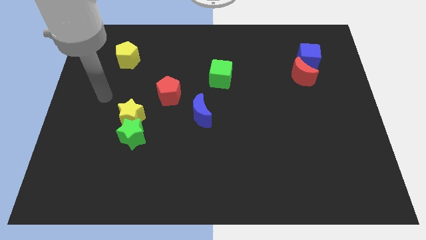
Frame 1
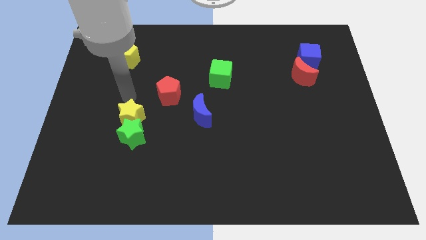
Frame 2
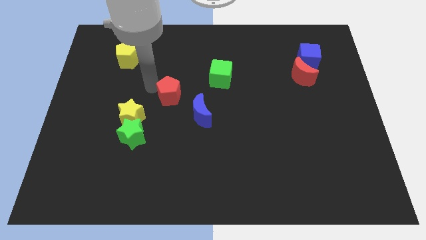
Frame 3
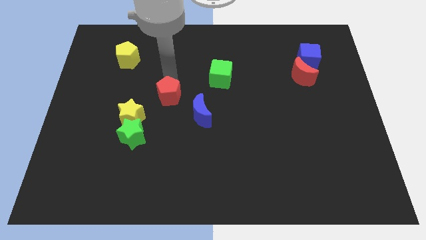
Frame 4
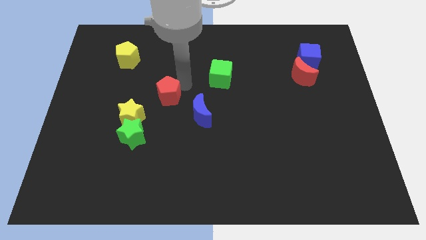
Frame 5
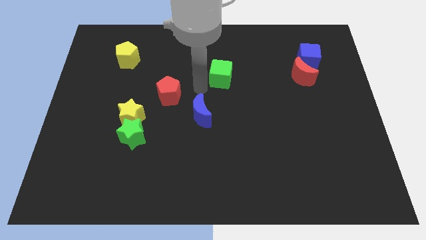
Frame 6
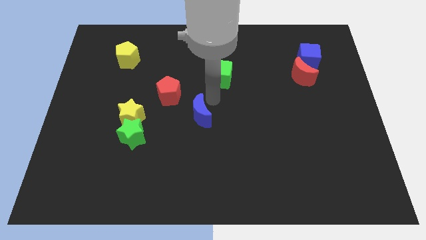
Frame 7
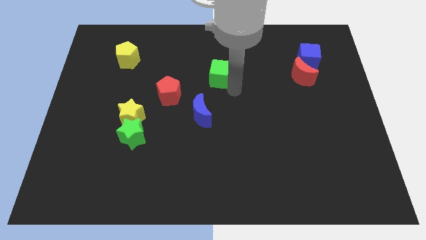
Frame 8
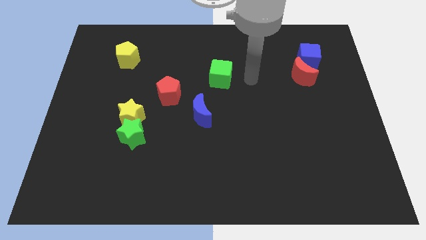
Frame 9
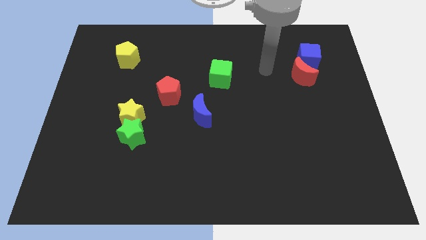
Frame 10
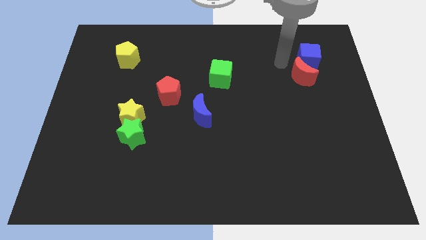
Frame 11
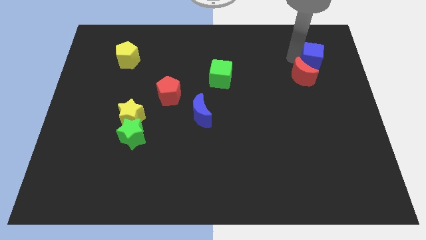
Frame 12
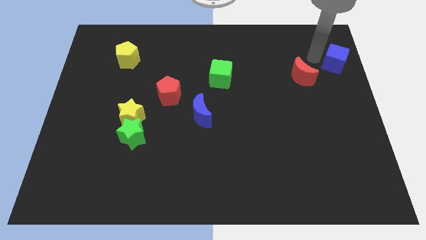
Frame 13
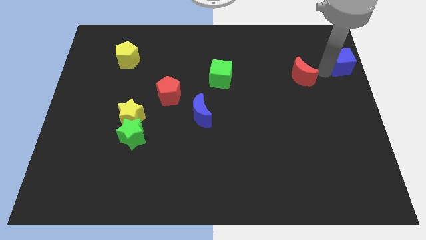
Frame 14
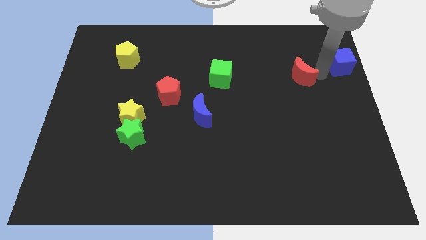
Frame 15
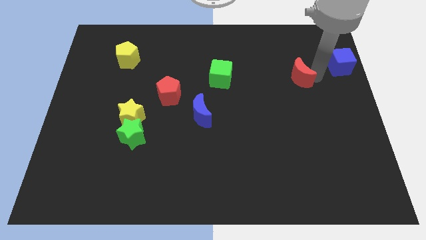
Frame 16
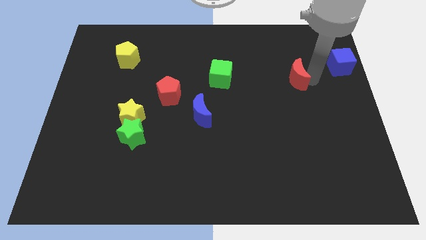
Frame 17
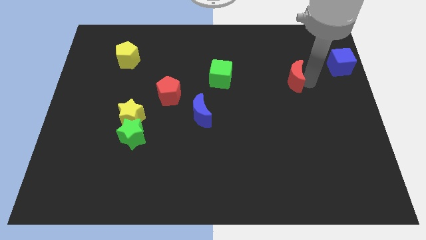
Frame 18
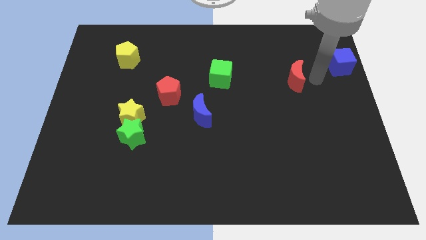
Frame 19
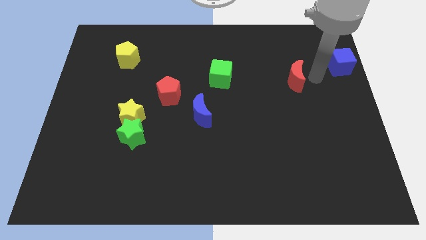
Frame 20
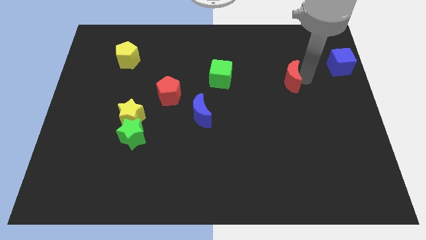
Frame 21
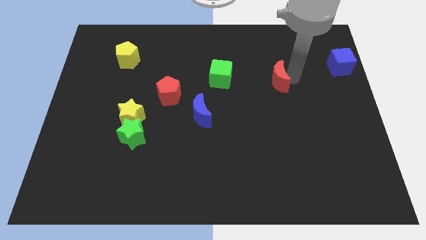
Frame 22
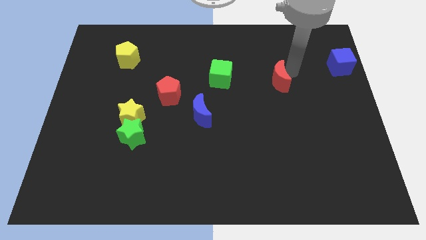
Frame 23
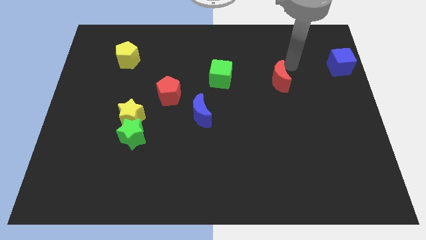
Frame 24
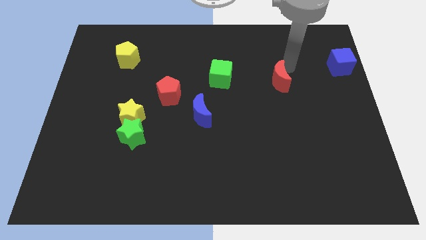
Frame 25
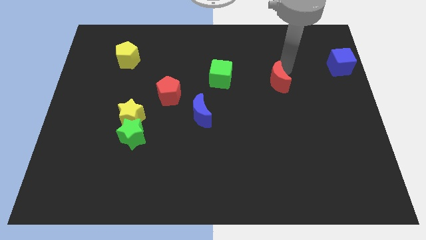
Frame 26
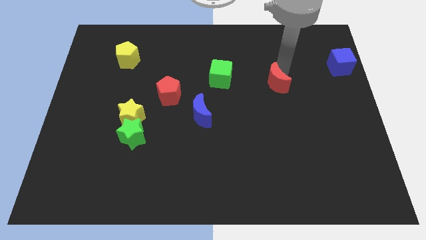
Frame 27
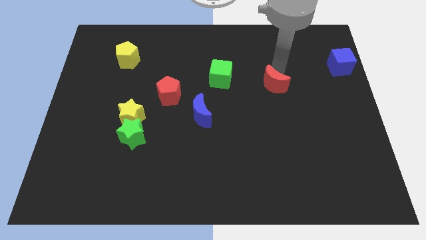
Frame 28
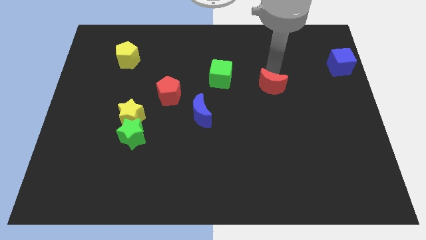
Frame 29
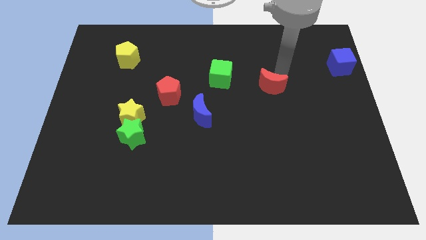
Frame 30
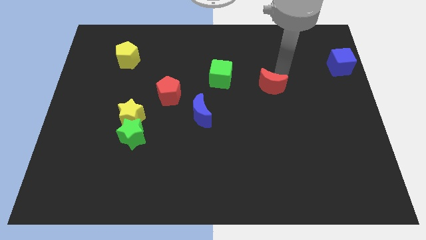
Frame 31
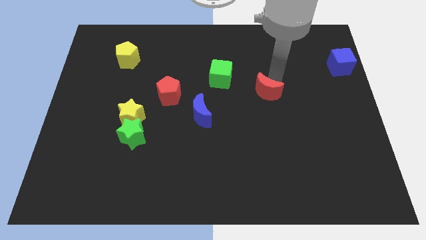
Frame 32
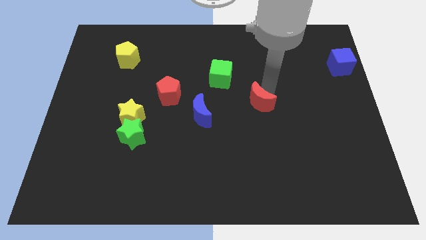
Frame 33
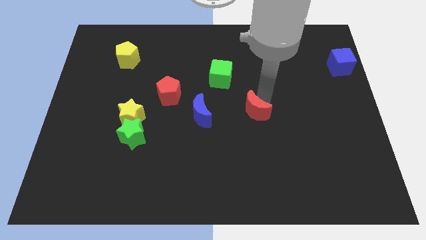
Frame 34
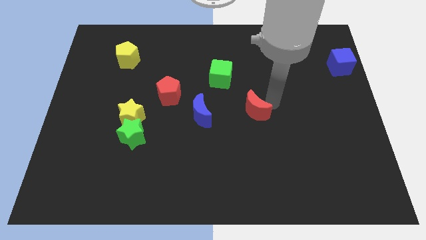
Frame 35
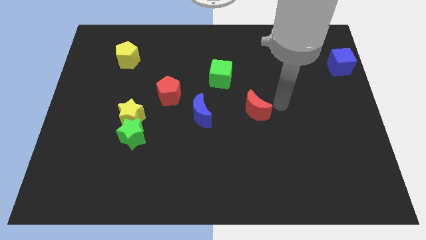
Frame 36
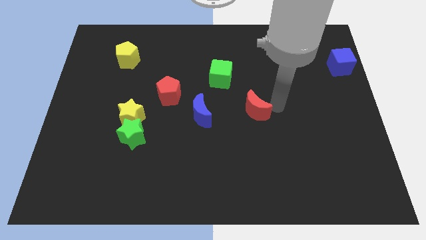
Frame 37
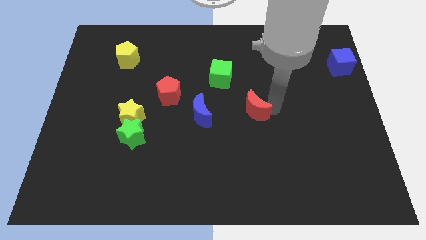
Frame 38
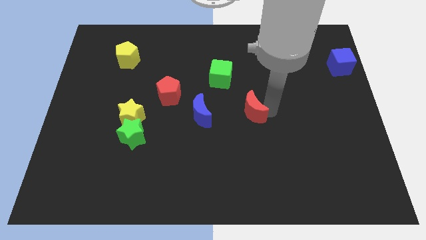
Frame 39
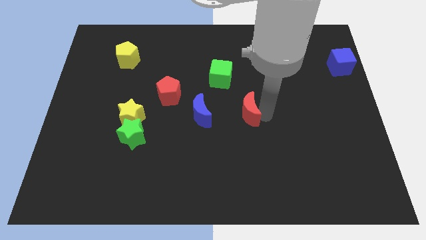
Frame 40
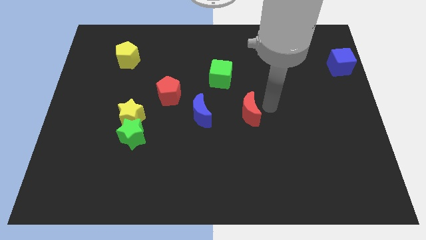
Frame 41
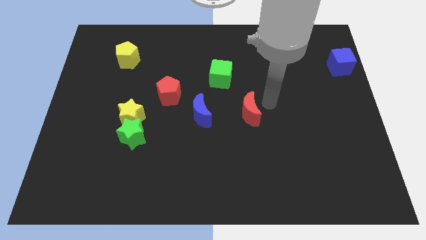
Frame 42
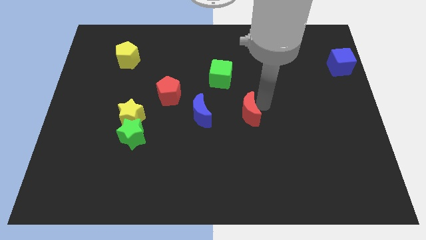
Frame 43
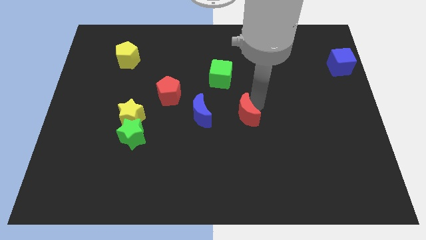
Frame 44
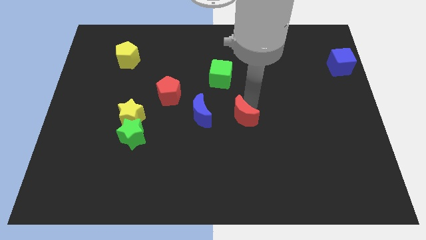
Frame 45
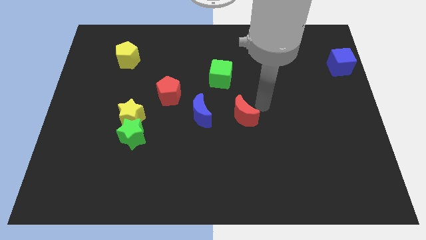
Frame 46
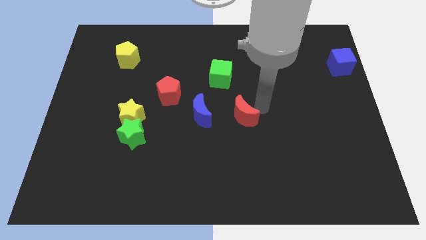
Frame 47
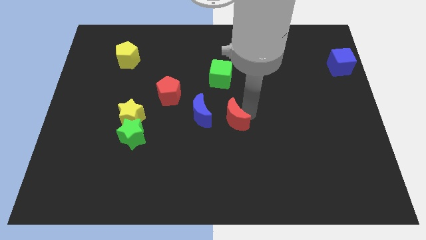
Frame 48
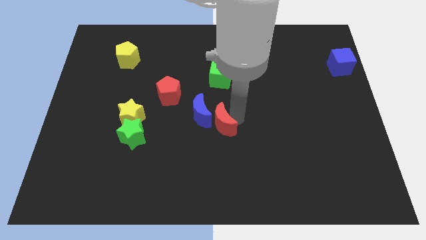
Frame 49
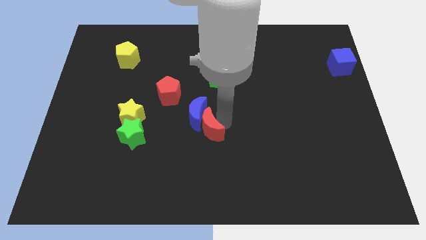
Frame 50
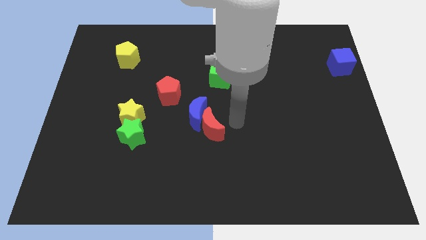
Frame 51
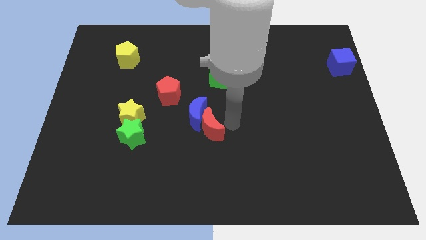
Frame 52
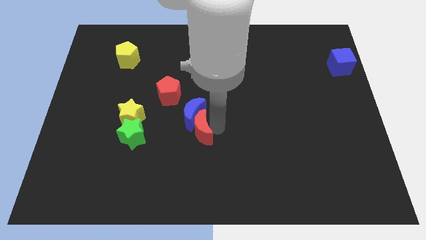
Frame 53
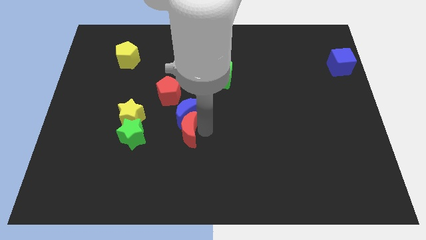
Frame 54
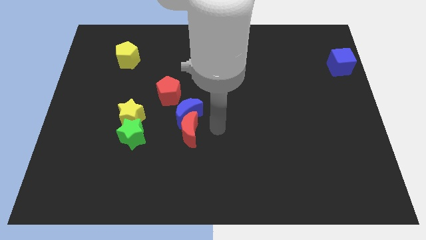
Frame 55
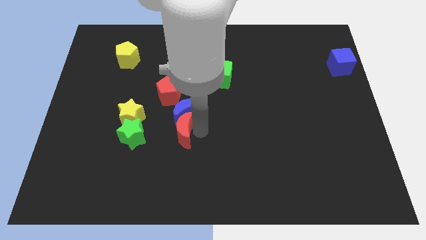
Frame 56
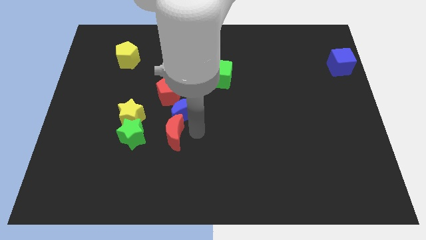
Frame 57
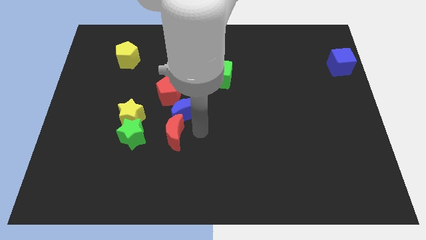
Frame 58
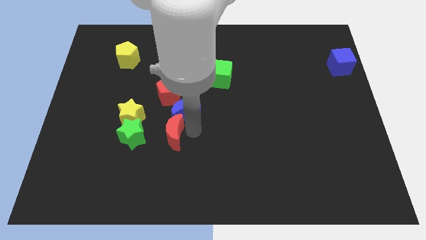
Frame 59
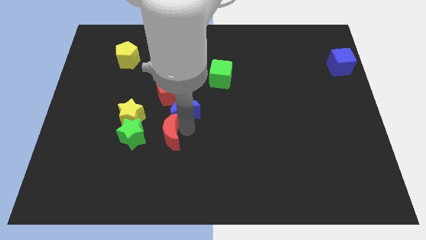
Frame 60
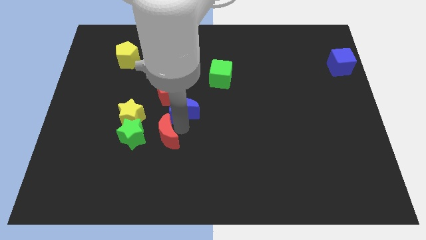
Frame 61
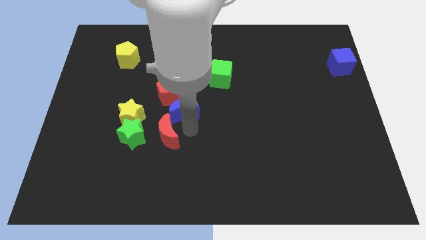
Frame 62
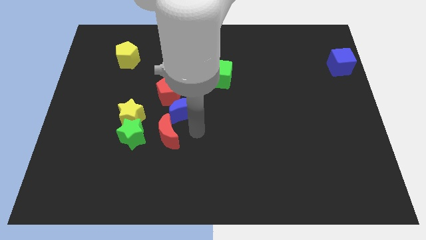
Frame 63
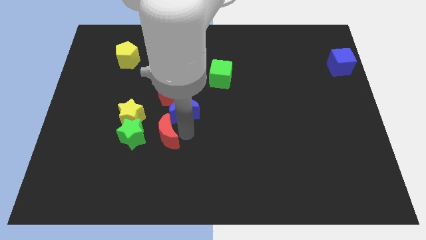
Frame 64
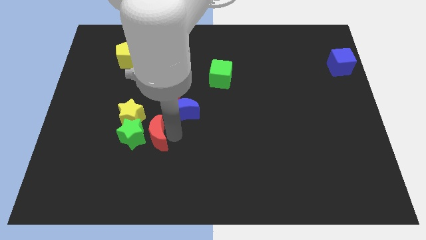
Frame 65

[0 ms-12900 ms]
put the red moon to the green star

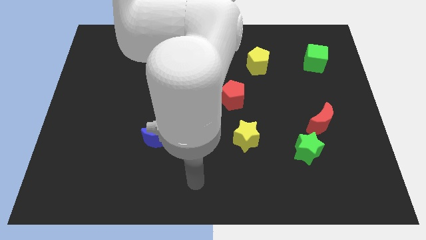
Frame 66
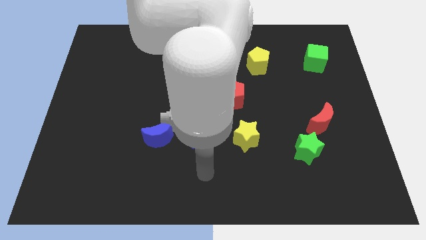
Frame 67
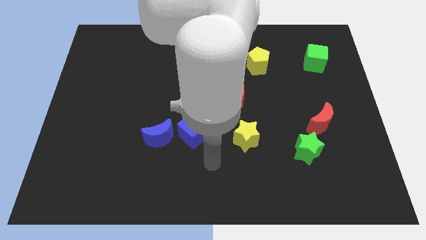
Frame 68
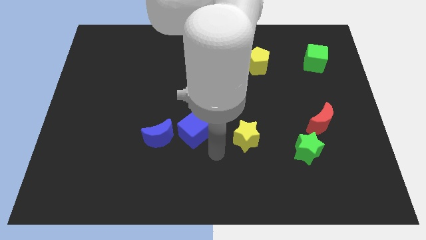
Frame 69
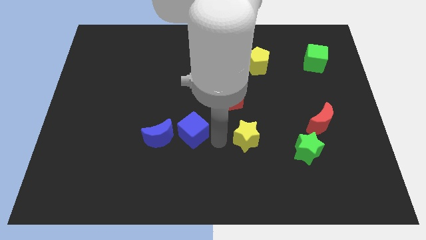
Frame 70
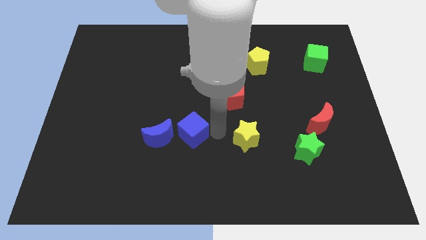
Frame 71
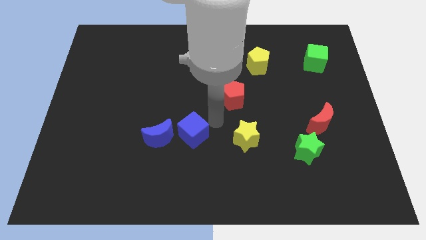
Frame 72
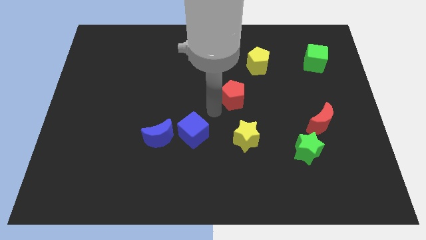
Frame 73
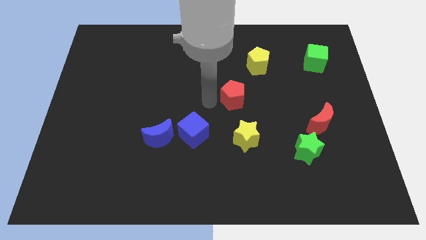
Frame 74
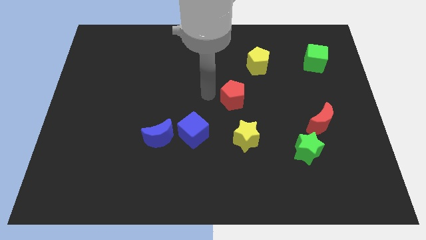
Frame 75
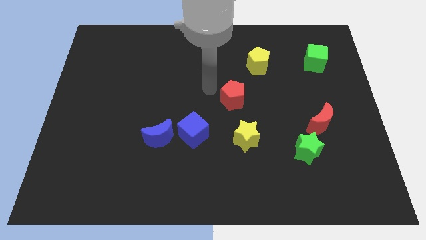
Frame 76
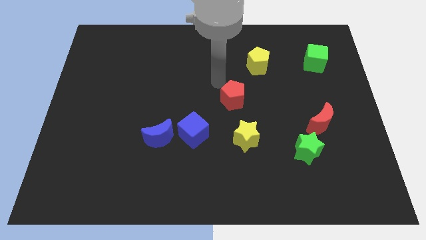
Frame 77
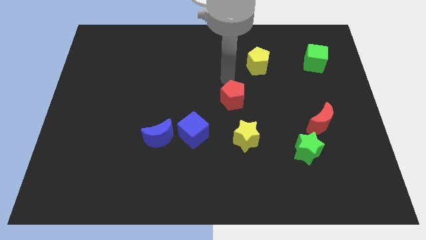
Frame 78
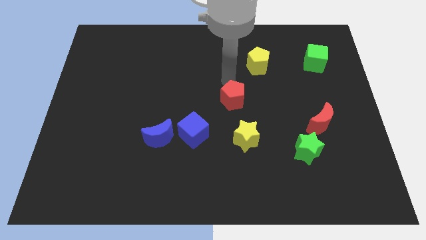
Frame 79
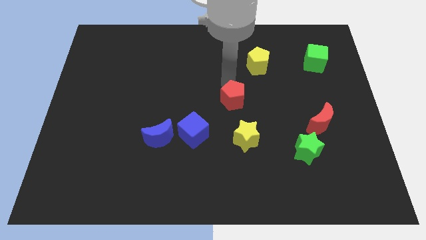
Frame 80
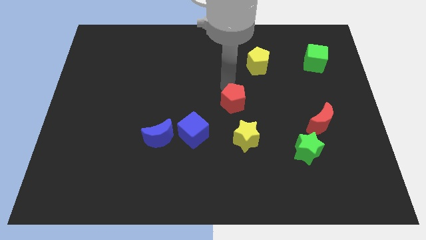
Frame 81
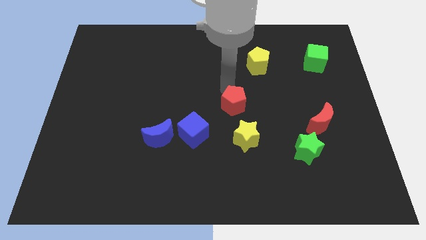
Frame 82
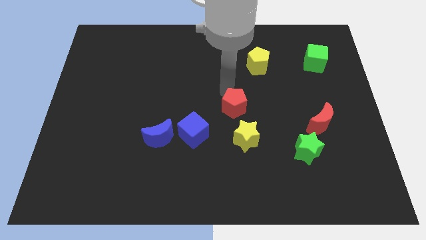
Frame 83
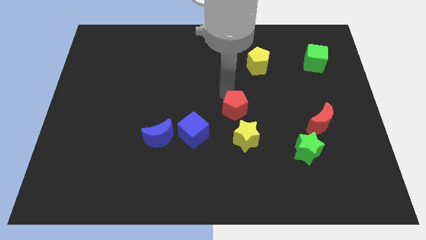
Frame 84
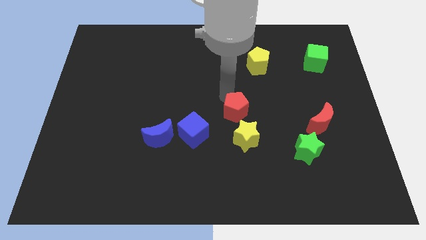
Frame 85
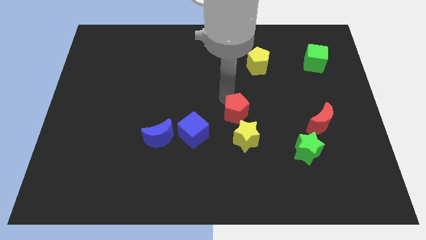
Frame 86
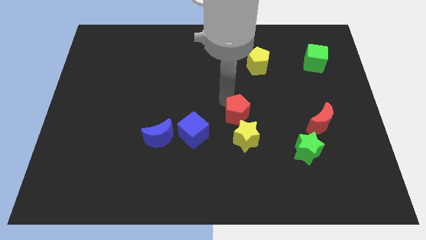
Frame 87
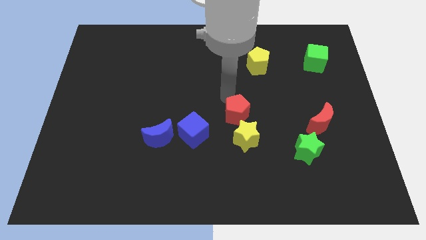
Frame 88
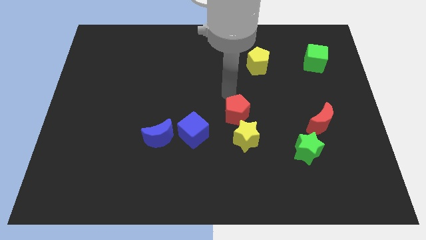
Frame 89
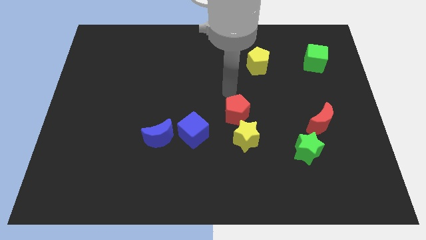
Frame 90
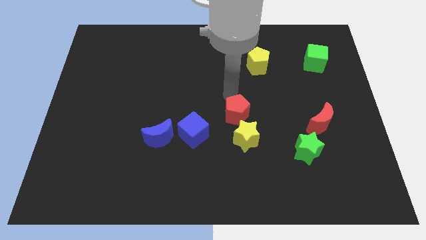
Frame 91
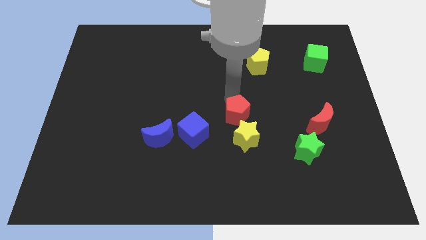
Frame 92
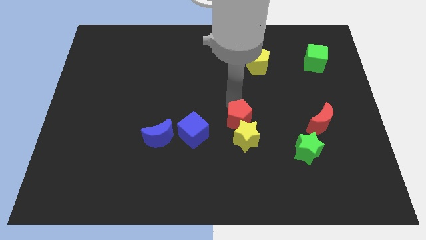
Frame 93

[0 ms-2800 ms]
slide the red pentagon close to the yellow star
